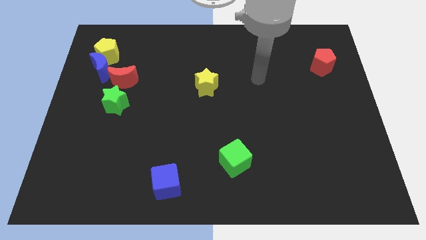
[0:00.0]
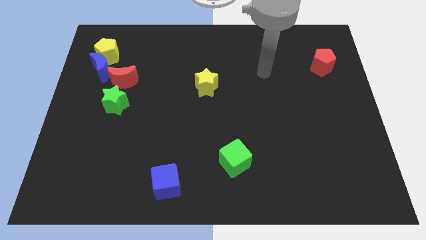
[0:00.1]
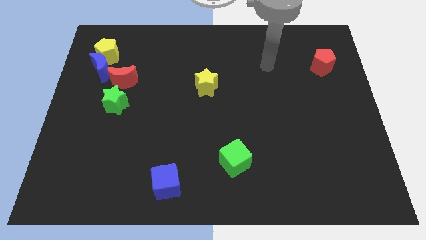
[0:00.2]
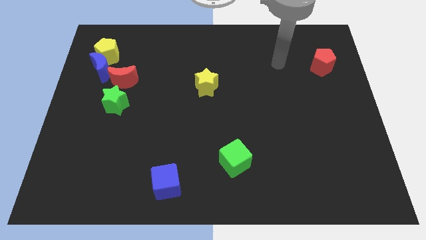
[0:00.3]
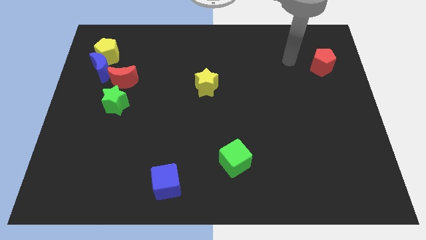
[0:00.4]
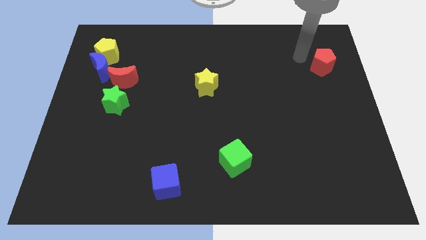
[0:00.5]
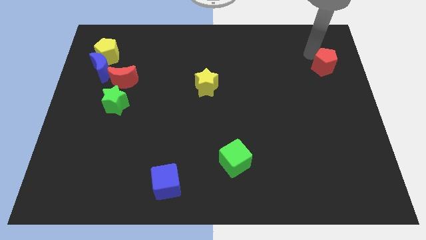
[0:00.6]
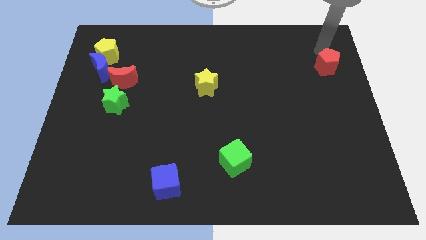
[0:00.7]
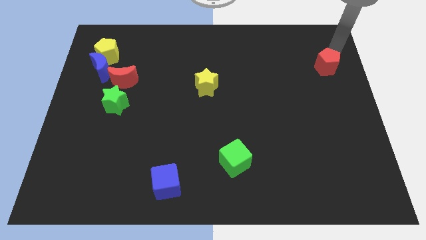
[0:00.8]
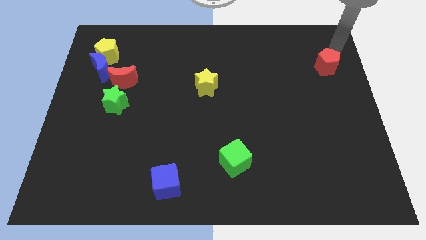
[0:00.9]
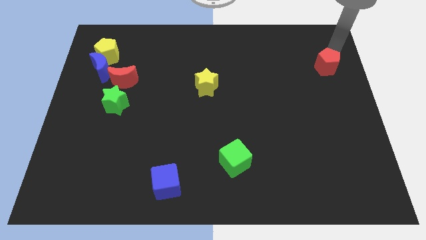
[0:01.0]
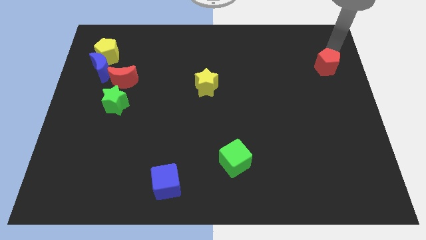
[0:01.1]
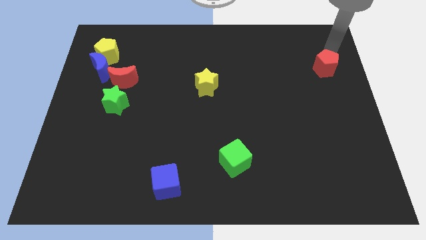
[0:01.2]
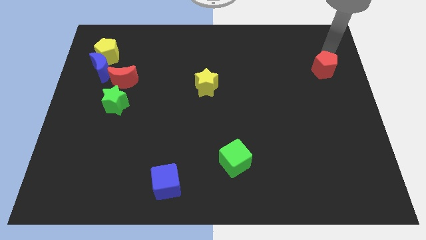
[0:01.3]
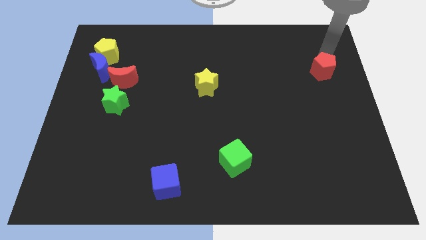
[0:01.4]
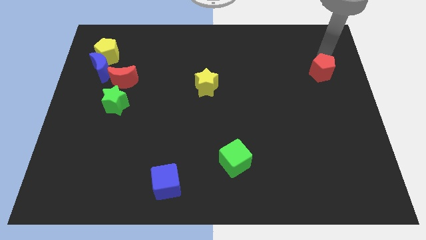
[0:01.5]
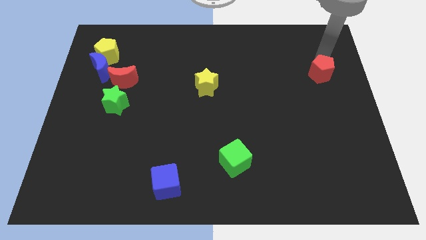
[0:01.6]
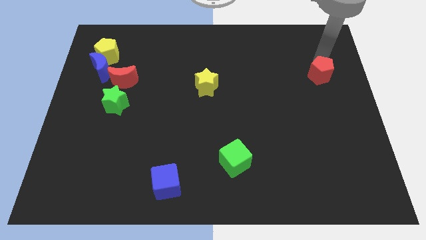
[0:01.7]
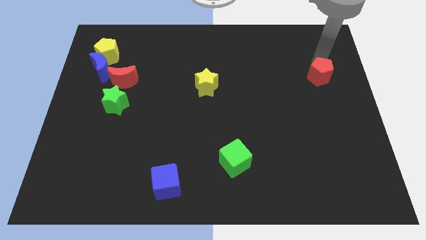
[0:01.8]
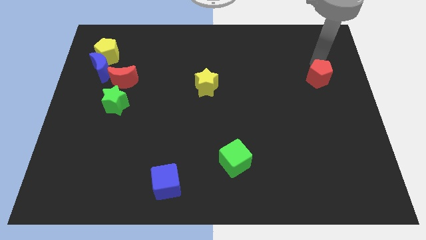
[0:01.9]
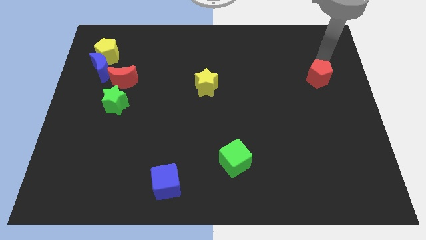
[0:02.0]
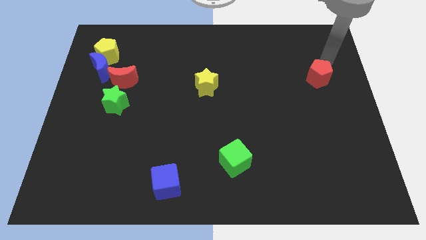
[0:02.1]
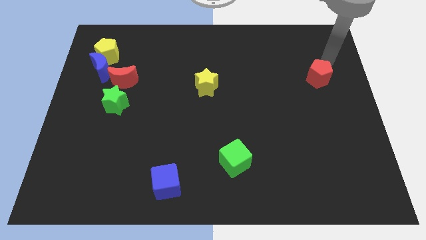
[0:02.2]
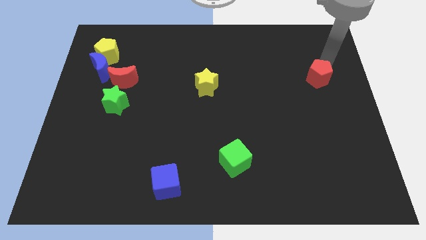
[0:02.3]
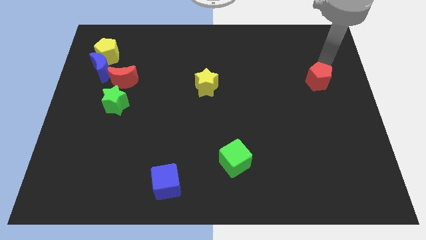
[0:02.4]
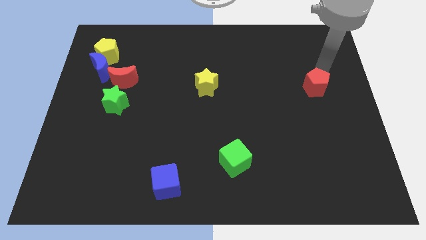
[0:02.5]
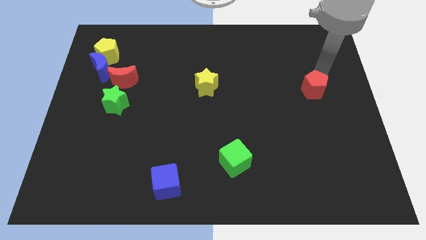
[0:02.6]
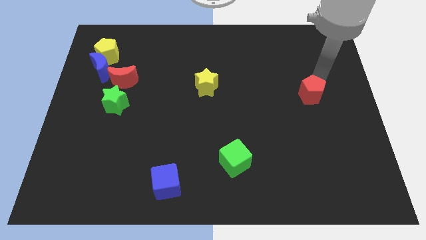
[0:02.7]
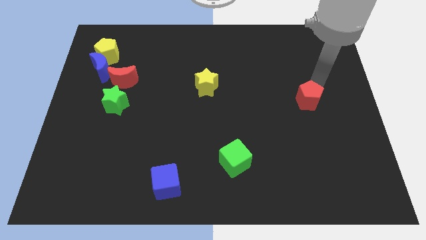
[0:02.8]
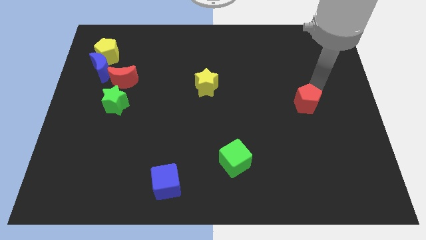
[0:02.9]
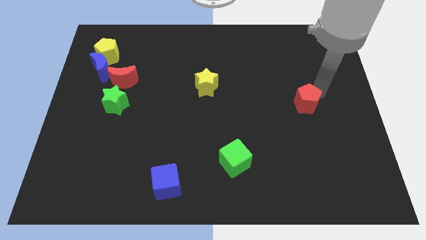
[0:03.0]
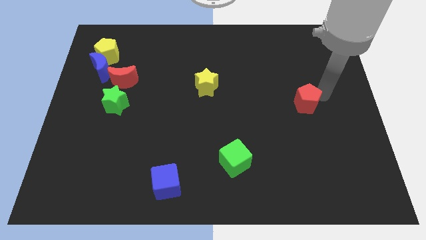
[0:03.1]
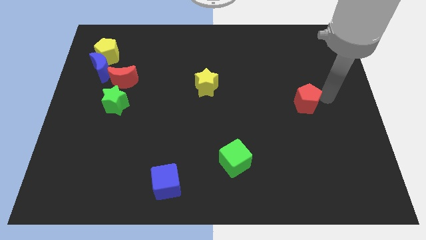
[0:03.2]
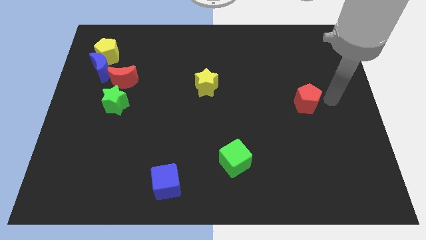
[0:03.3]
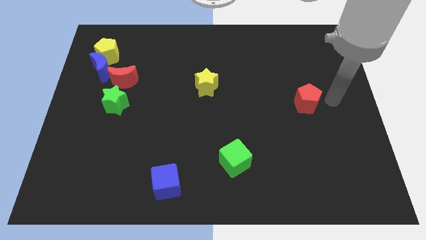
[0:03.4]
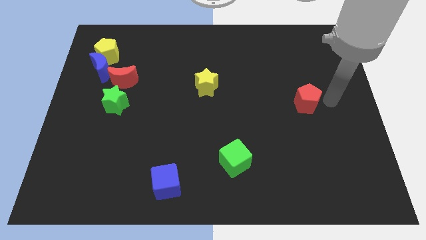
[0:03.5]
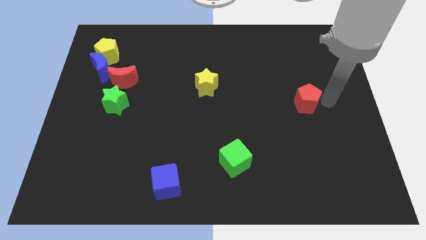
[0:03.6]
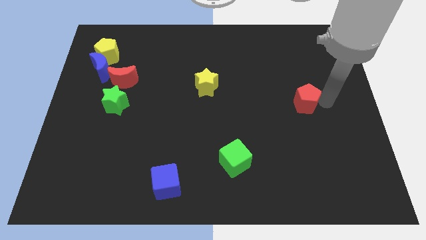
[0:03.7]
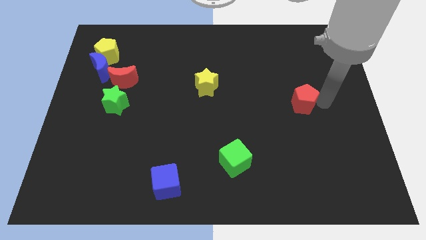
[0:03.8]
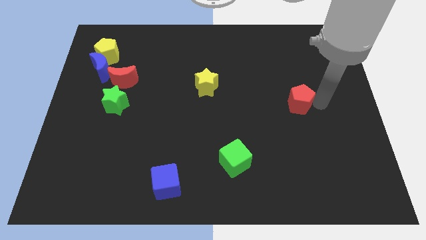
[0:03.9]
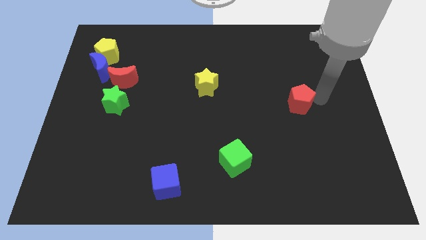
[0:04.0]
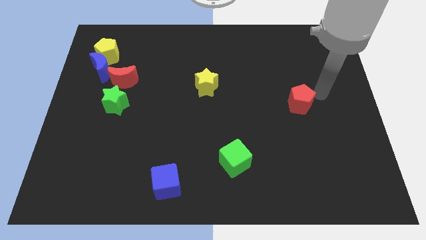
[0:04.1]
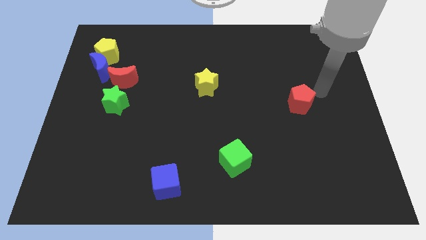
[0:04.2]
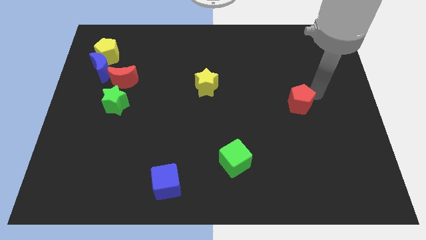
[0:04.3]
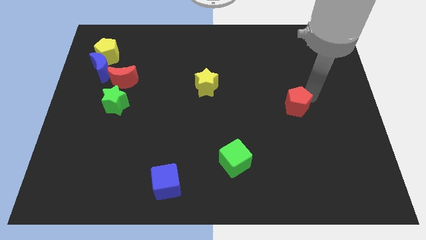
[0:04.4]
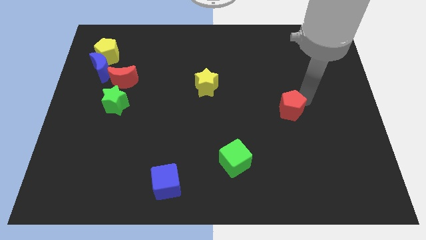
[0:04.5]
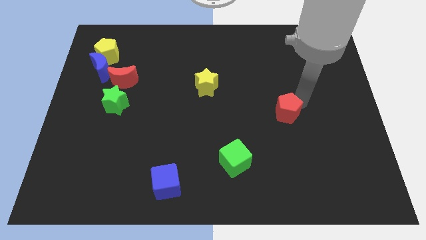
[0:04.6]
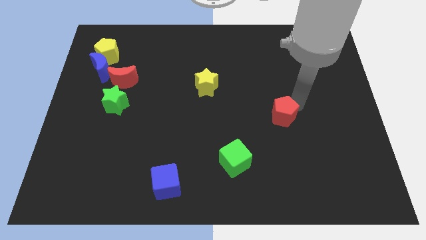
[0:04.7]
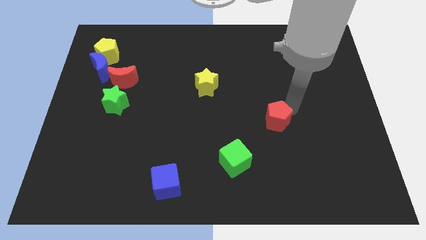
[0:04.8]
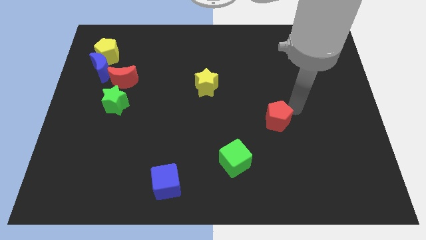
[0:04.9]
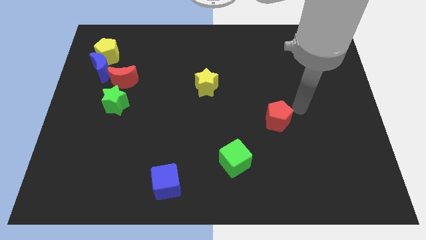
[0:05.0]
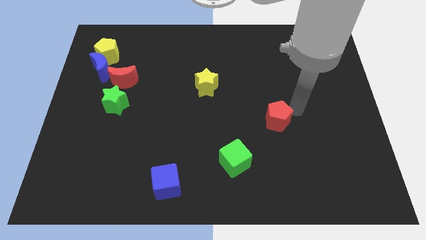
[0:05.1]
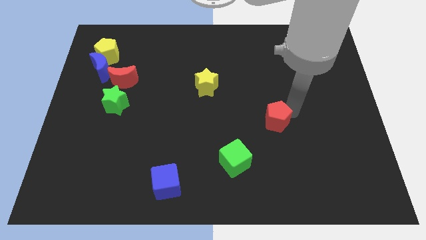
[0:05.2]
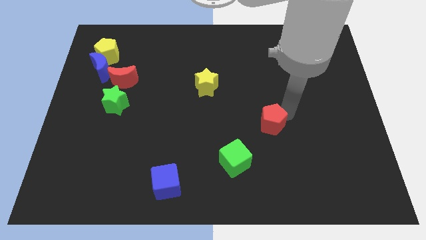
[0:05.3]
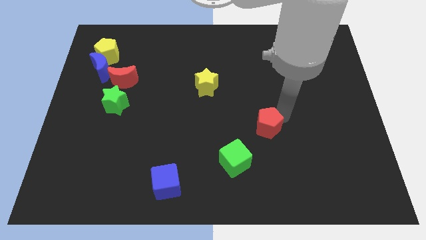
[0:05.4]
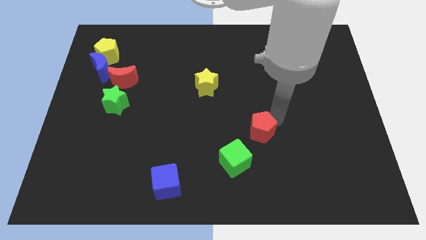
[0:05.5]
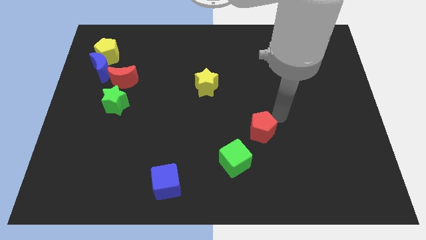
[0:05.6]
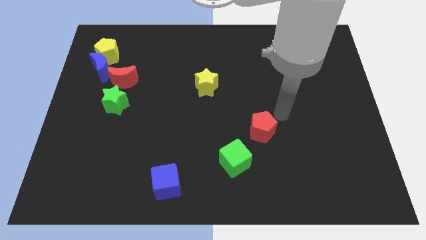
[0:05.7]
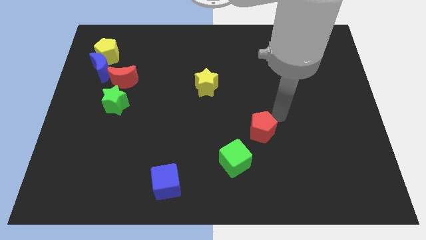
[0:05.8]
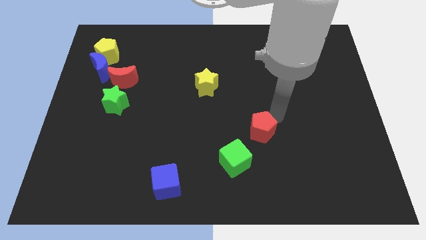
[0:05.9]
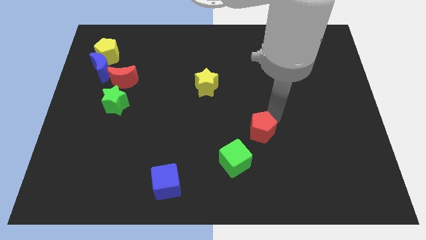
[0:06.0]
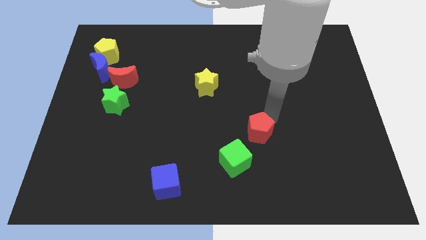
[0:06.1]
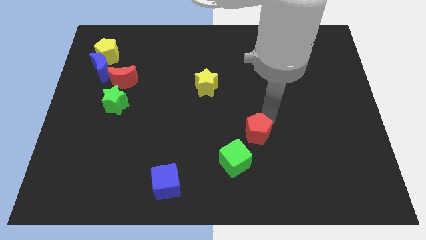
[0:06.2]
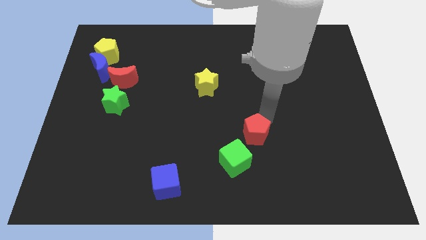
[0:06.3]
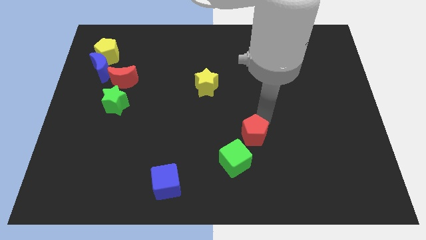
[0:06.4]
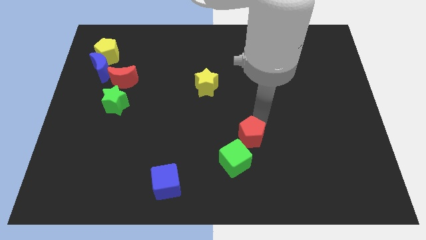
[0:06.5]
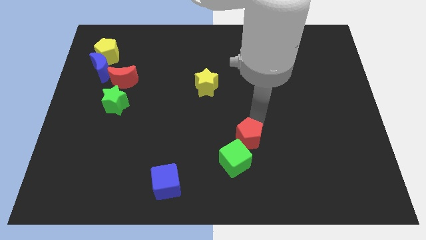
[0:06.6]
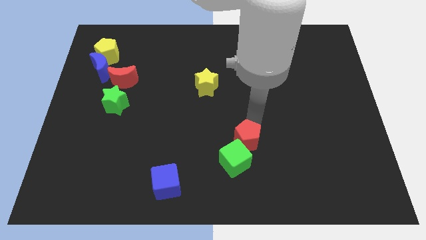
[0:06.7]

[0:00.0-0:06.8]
push the red pentagon close to the green cube

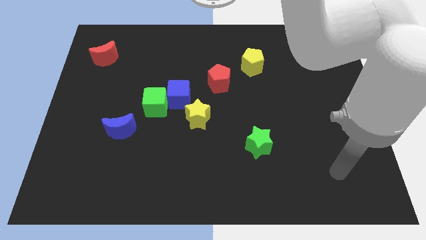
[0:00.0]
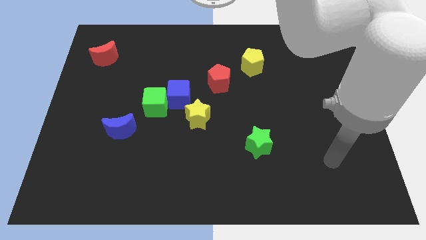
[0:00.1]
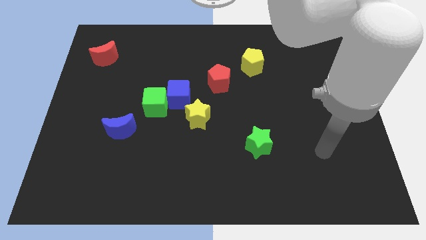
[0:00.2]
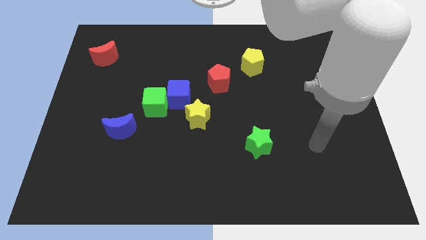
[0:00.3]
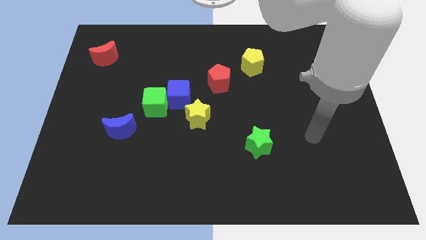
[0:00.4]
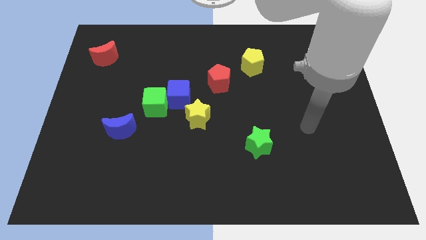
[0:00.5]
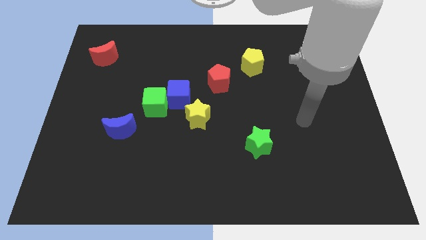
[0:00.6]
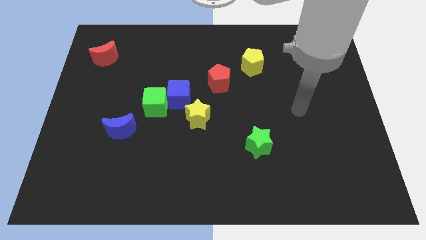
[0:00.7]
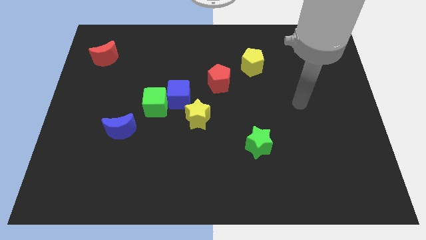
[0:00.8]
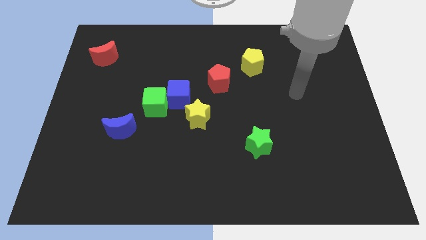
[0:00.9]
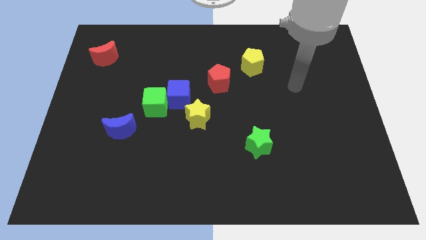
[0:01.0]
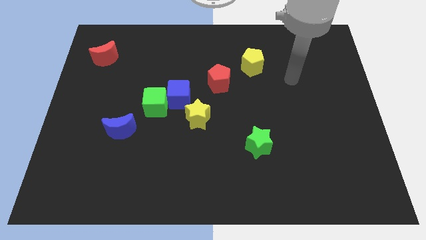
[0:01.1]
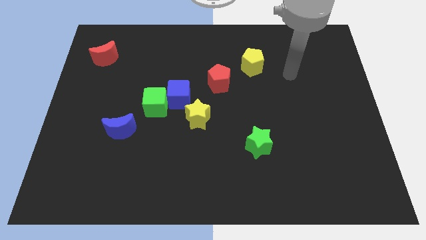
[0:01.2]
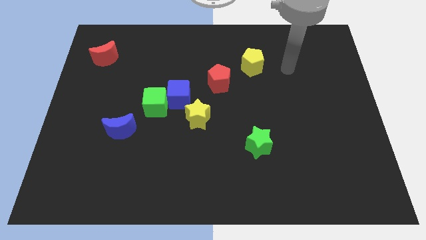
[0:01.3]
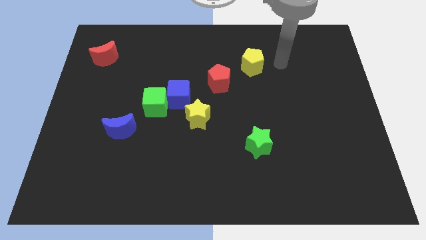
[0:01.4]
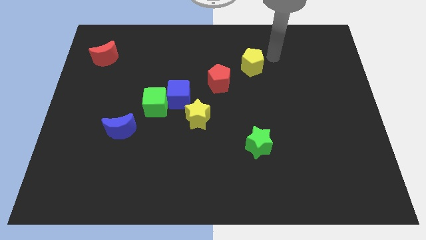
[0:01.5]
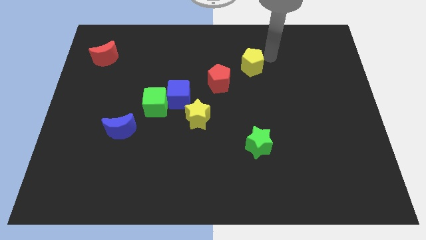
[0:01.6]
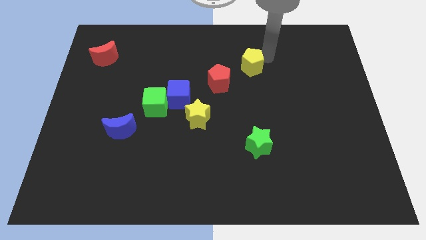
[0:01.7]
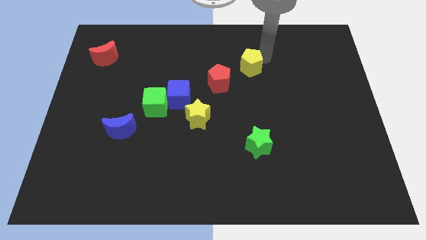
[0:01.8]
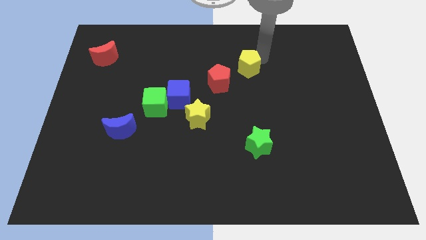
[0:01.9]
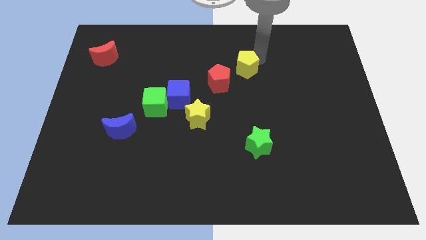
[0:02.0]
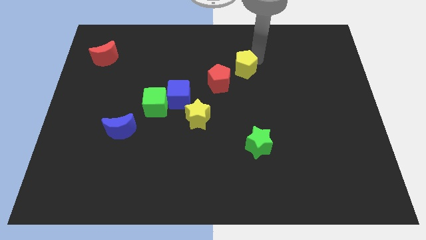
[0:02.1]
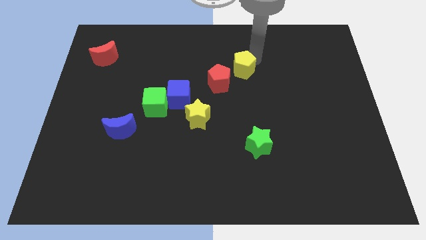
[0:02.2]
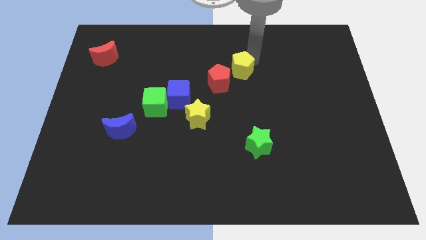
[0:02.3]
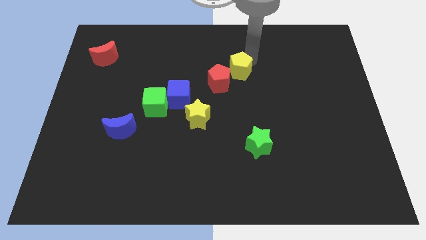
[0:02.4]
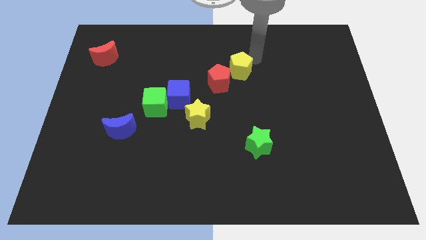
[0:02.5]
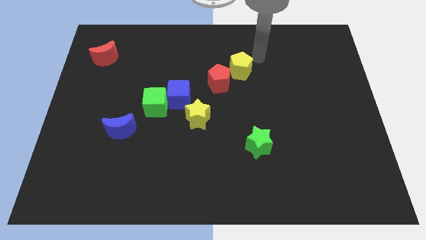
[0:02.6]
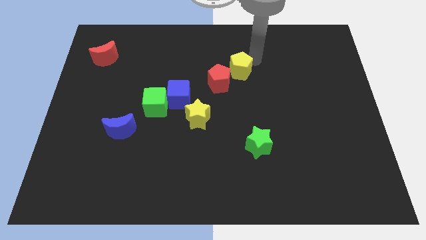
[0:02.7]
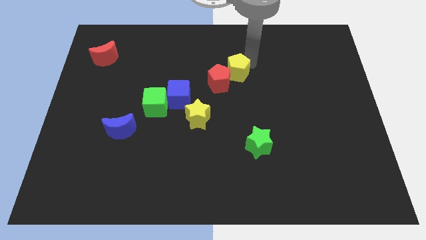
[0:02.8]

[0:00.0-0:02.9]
move the yellow pentagon close to the red pentagon
